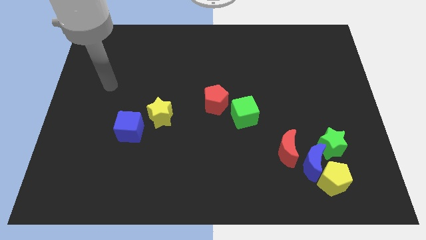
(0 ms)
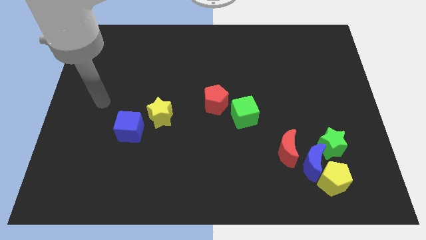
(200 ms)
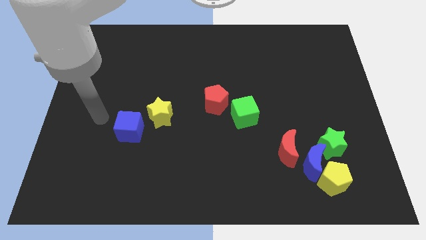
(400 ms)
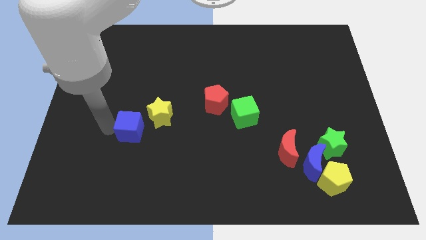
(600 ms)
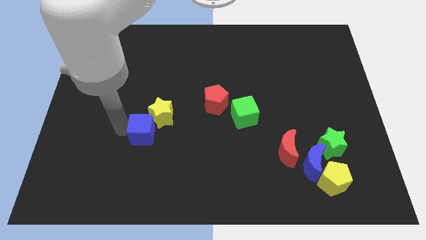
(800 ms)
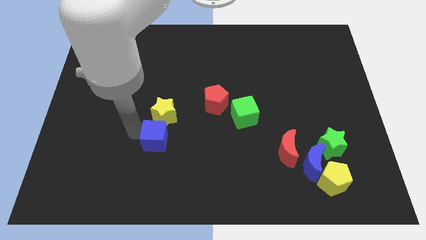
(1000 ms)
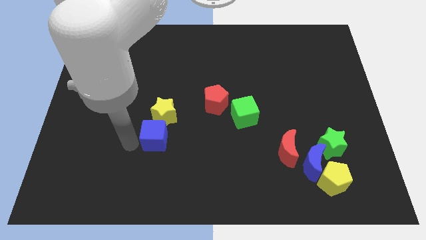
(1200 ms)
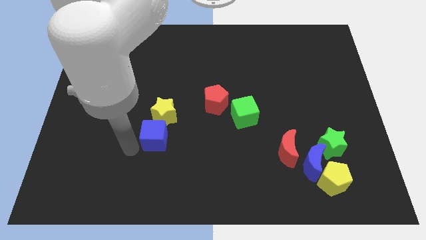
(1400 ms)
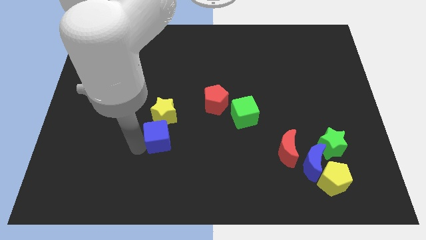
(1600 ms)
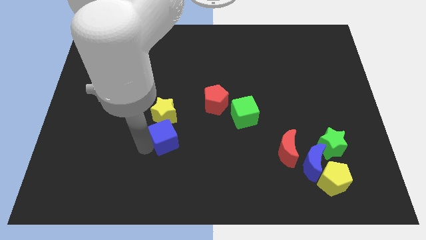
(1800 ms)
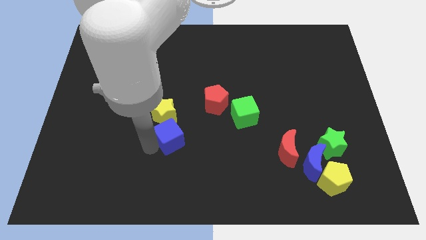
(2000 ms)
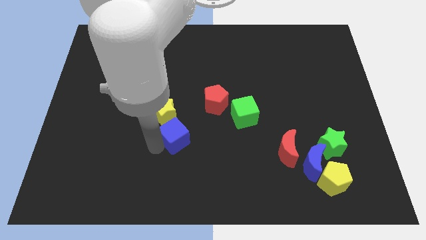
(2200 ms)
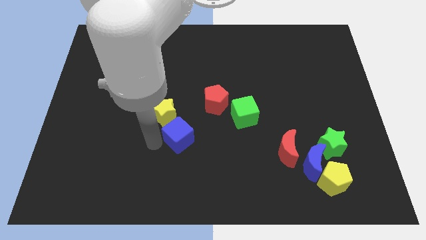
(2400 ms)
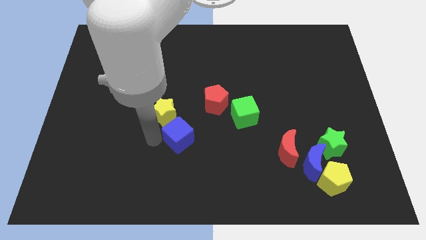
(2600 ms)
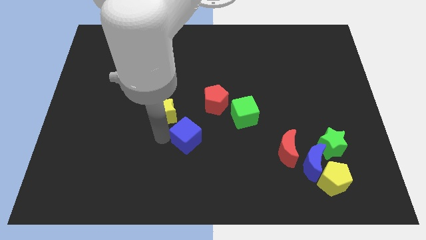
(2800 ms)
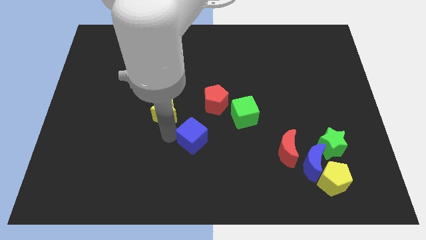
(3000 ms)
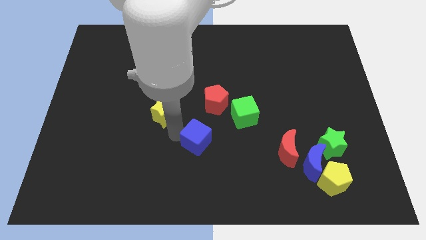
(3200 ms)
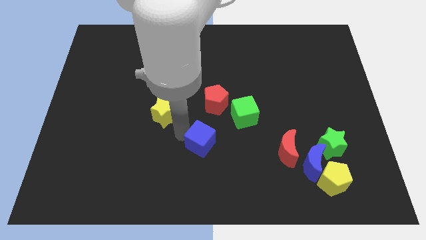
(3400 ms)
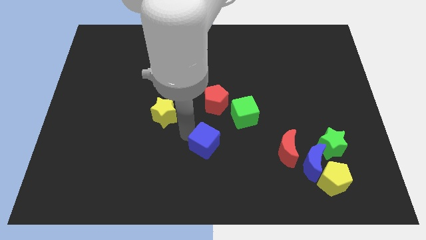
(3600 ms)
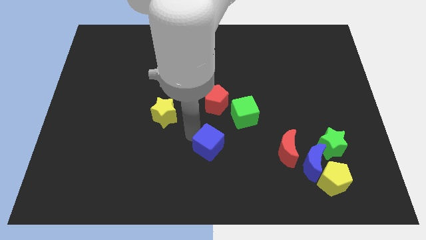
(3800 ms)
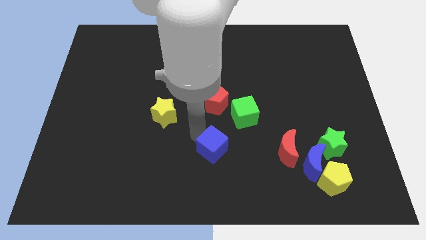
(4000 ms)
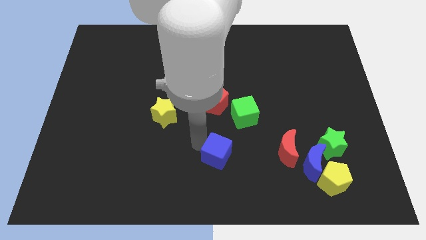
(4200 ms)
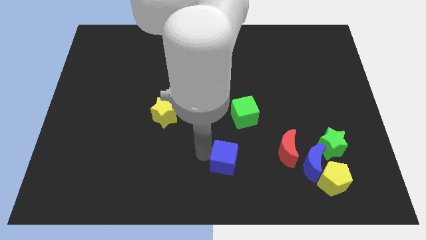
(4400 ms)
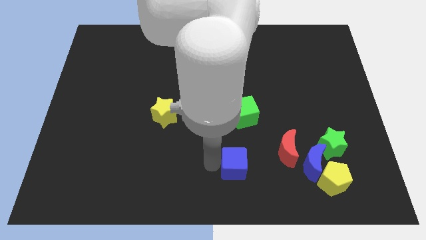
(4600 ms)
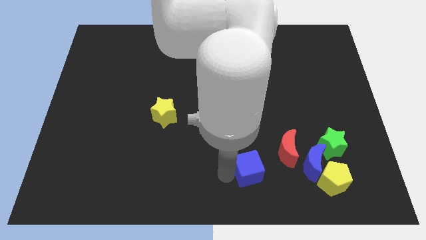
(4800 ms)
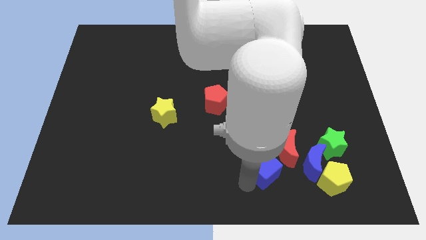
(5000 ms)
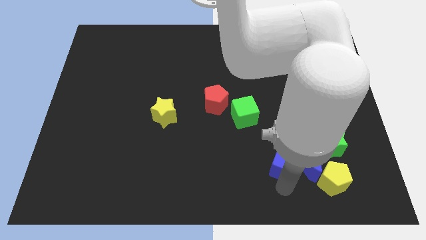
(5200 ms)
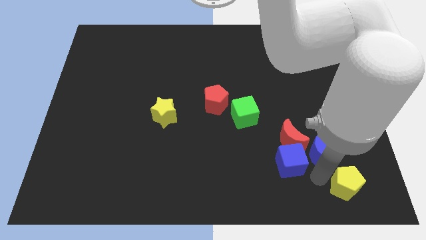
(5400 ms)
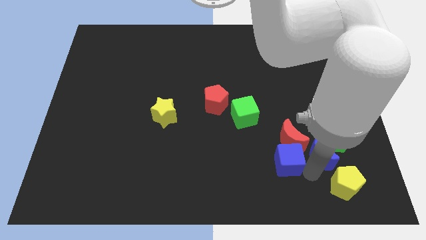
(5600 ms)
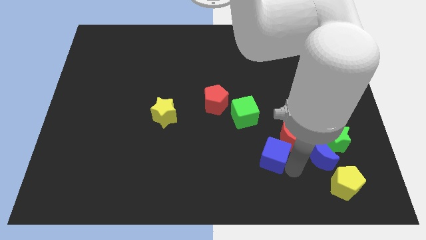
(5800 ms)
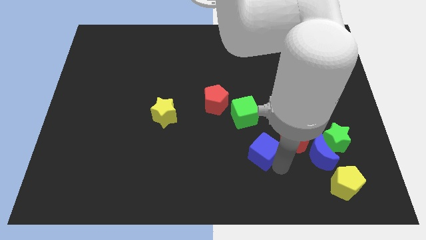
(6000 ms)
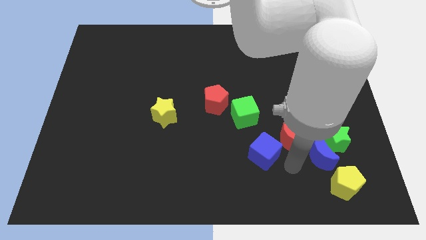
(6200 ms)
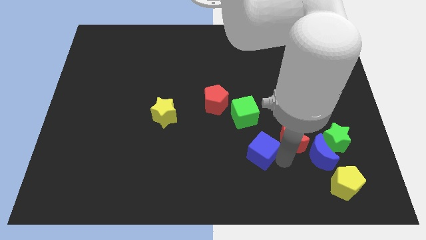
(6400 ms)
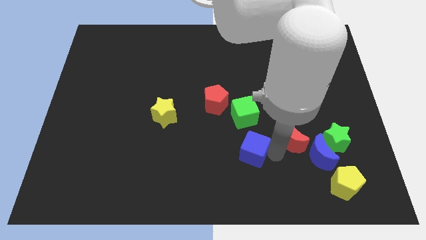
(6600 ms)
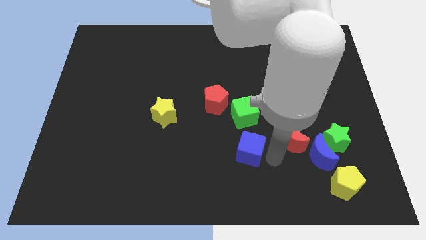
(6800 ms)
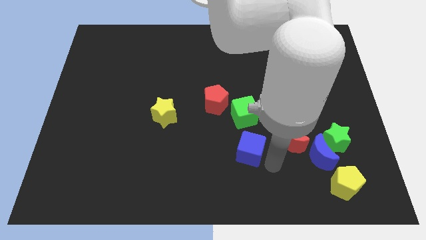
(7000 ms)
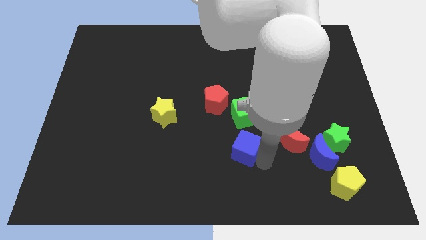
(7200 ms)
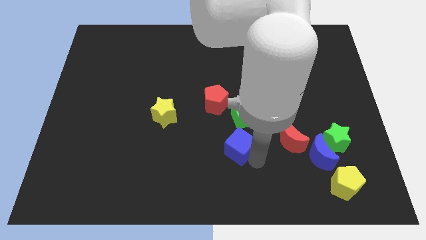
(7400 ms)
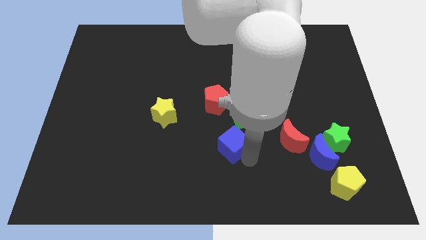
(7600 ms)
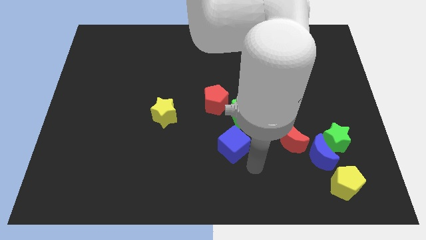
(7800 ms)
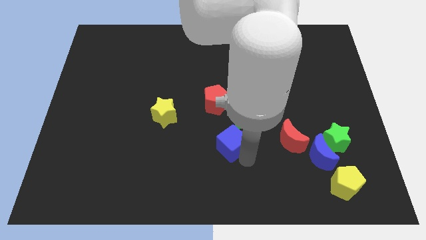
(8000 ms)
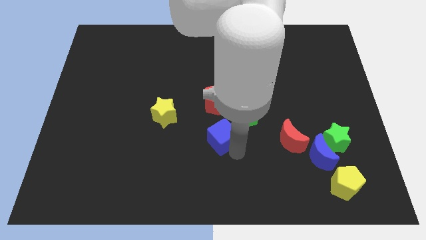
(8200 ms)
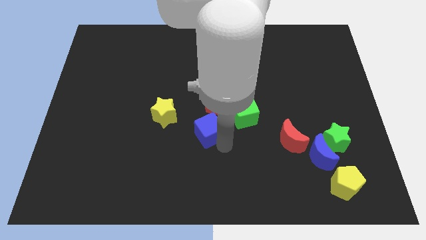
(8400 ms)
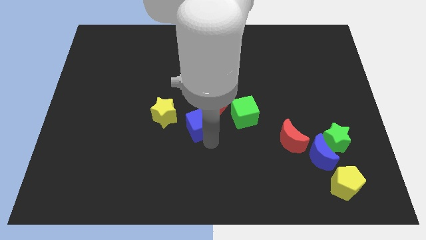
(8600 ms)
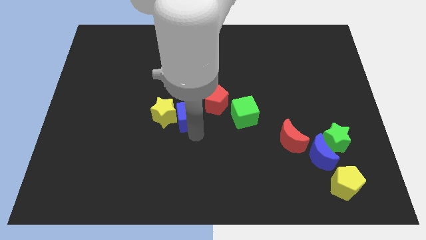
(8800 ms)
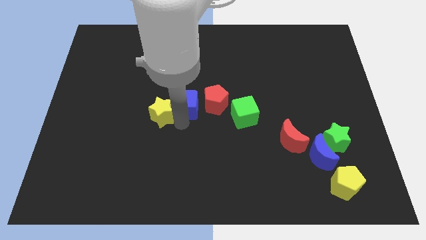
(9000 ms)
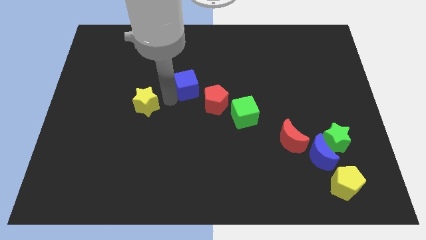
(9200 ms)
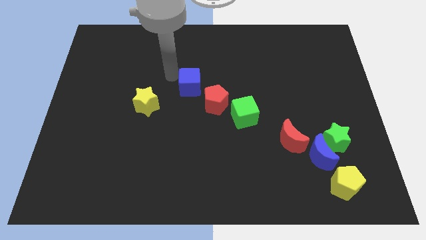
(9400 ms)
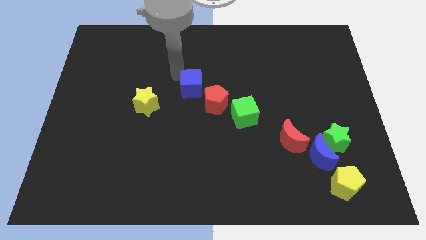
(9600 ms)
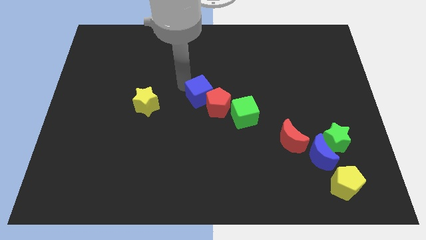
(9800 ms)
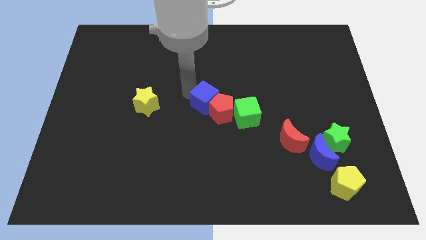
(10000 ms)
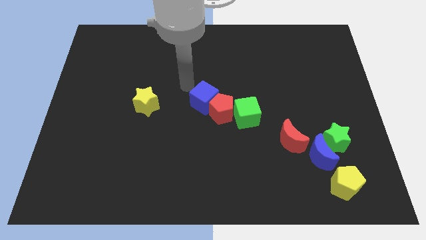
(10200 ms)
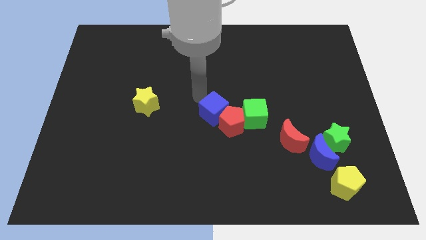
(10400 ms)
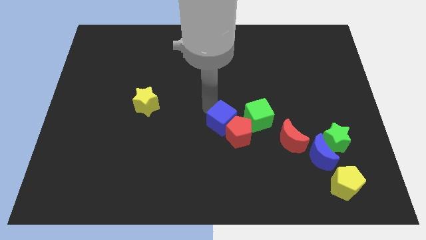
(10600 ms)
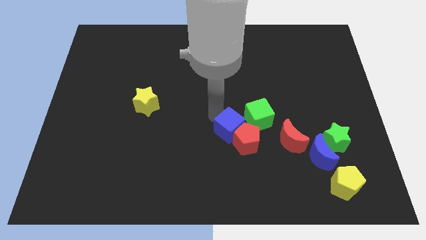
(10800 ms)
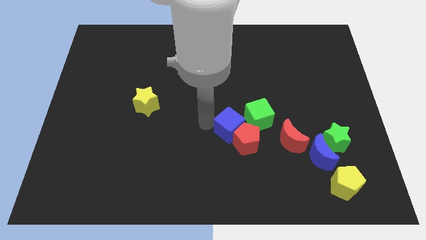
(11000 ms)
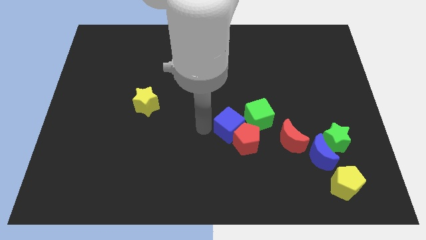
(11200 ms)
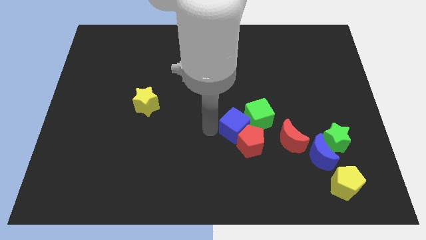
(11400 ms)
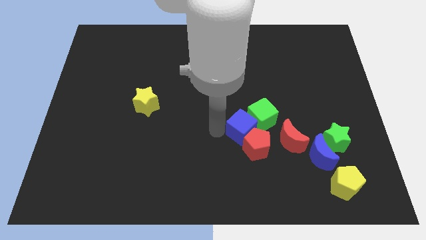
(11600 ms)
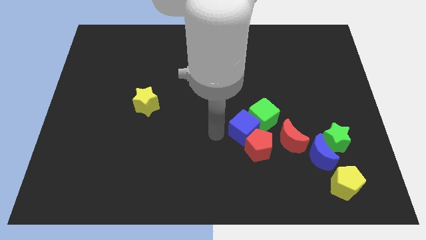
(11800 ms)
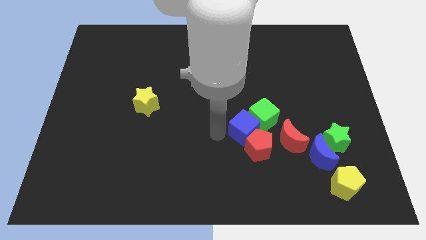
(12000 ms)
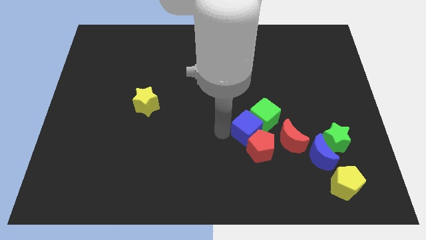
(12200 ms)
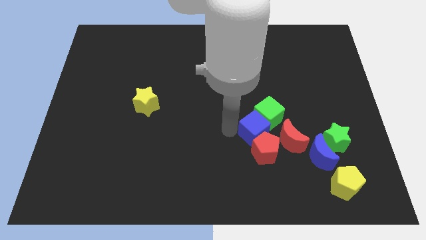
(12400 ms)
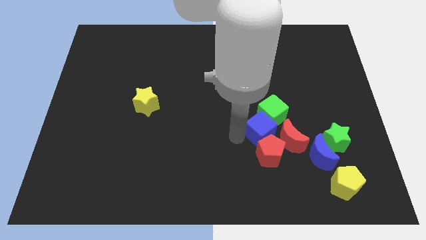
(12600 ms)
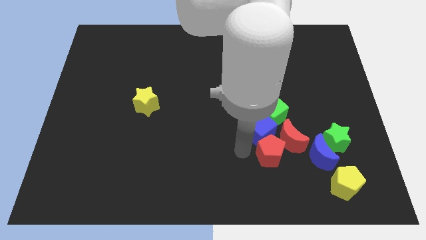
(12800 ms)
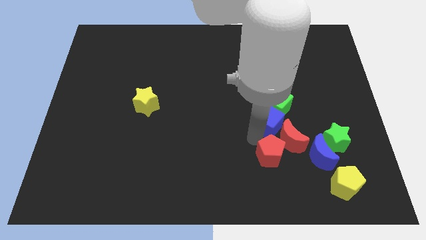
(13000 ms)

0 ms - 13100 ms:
move the blue cube to the top of the red moon

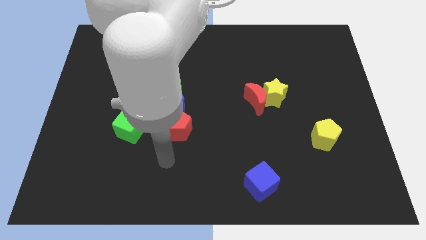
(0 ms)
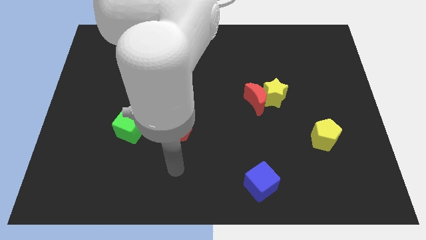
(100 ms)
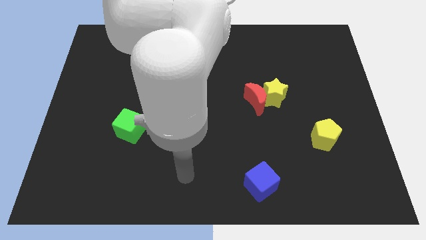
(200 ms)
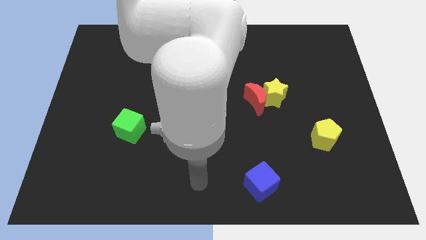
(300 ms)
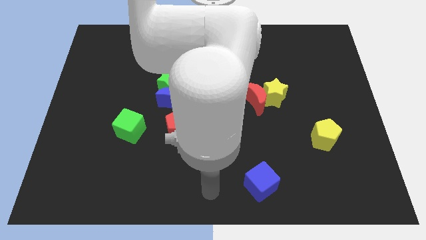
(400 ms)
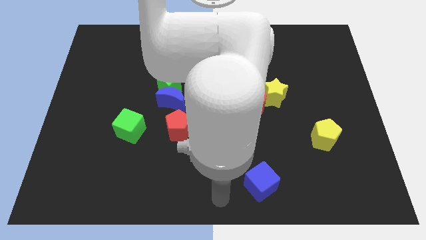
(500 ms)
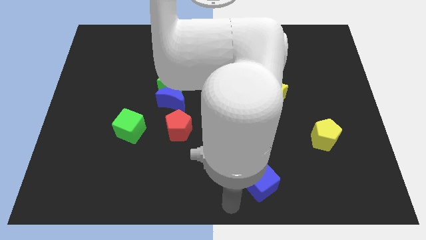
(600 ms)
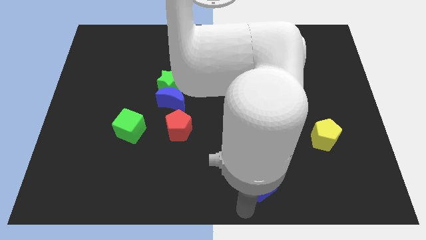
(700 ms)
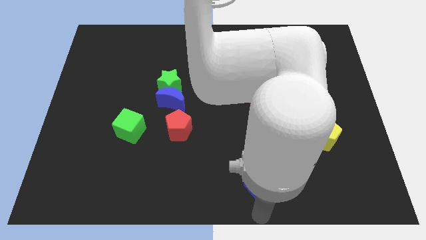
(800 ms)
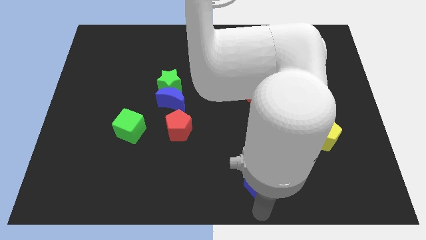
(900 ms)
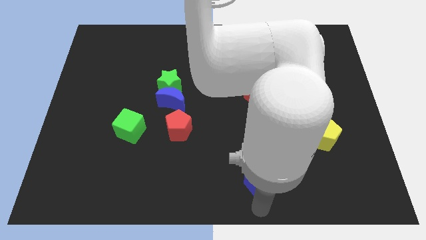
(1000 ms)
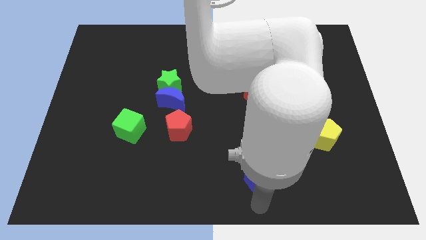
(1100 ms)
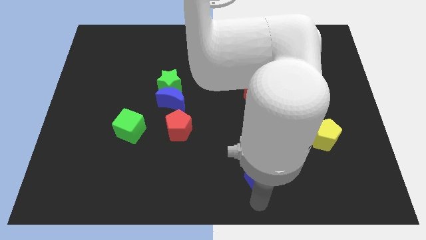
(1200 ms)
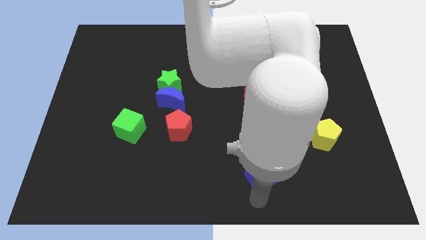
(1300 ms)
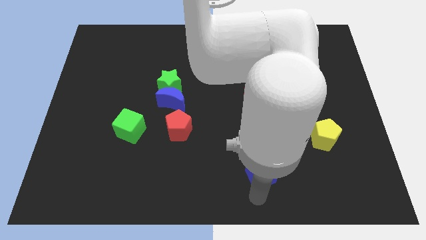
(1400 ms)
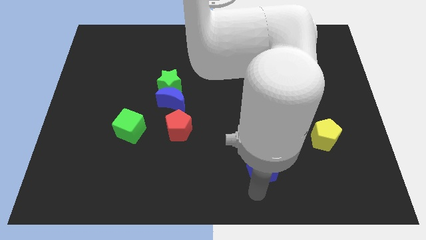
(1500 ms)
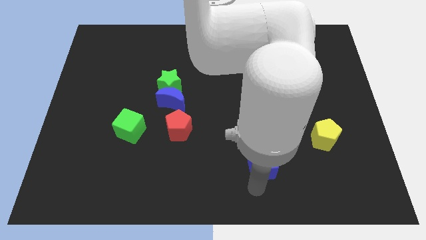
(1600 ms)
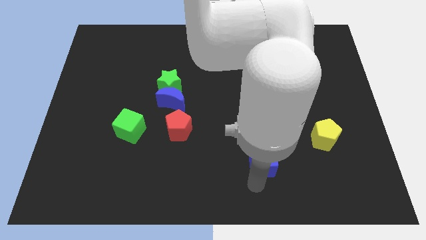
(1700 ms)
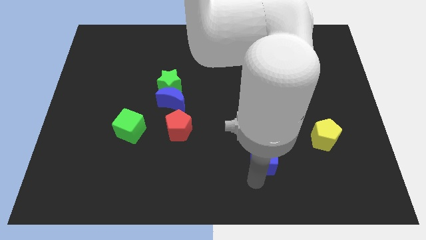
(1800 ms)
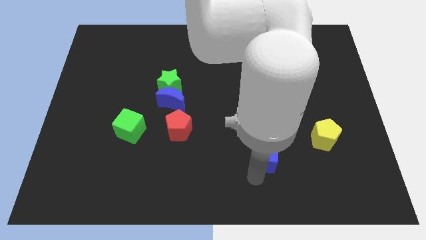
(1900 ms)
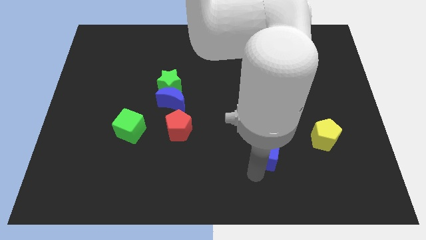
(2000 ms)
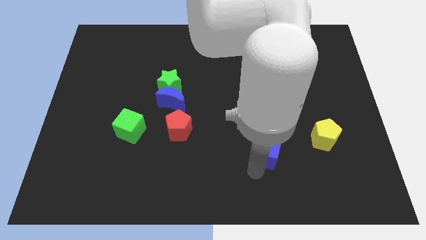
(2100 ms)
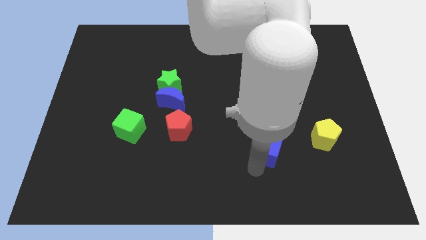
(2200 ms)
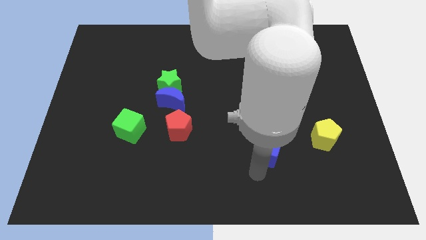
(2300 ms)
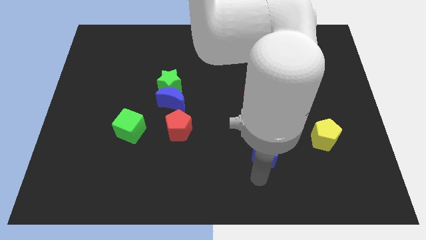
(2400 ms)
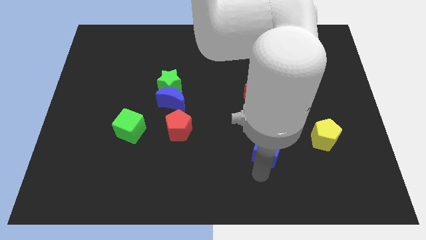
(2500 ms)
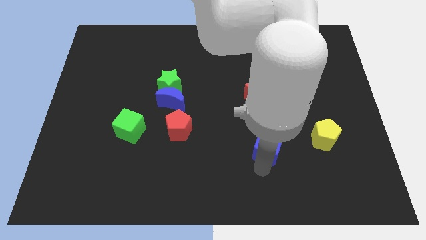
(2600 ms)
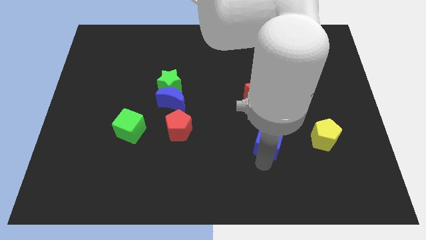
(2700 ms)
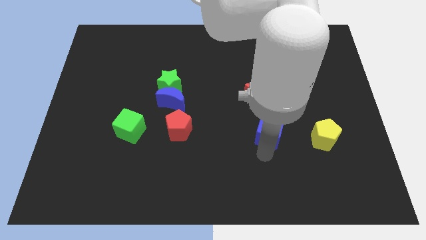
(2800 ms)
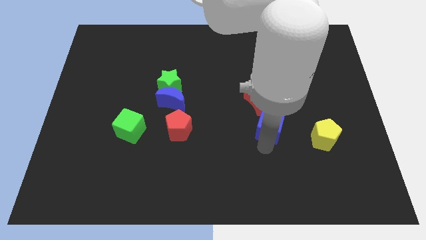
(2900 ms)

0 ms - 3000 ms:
push the blue cube to the bottom right of the red moon
